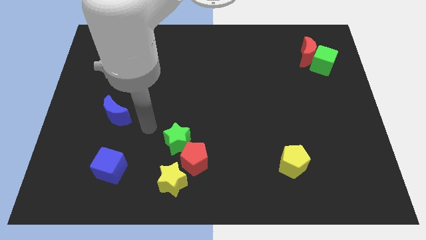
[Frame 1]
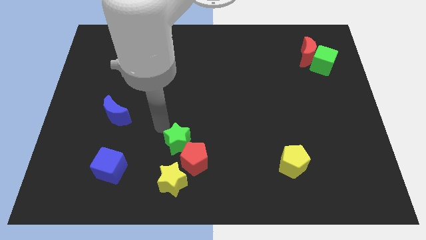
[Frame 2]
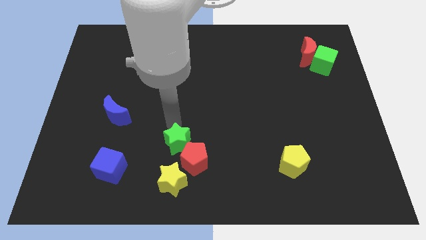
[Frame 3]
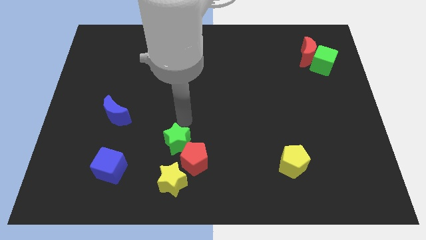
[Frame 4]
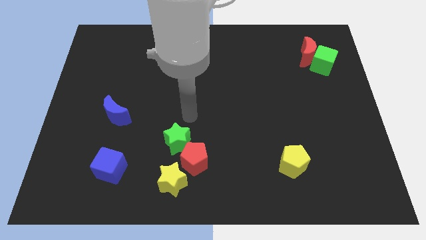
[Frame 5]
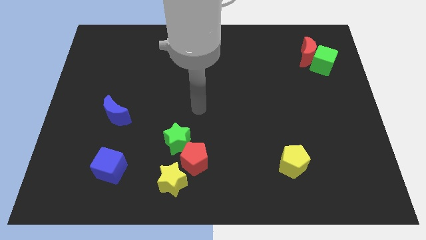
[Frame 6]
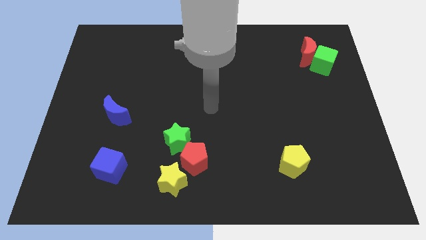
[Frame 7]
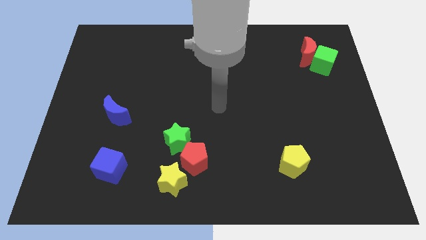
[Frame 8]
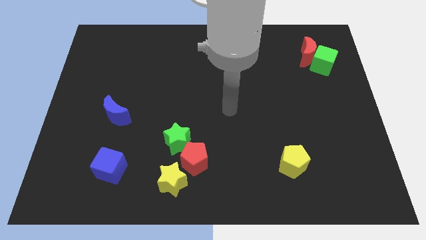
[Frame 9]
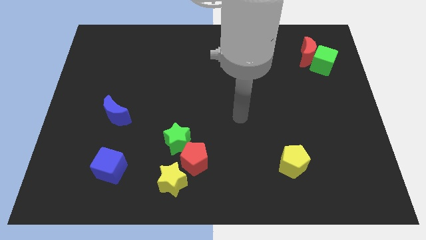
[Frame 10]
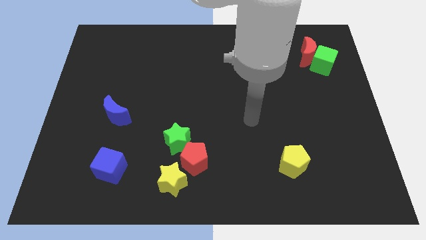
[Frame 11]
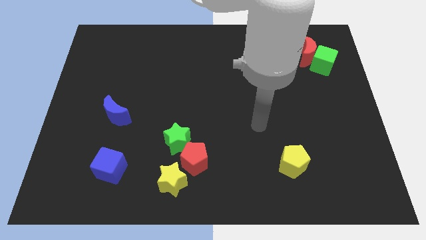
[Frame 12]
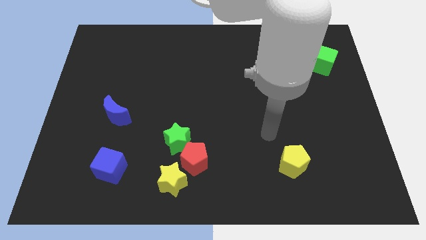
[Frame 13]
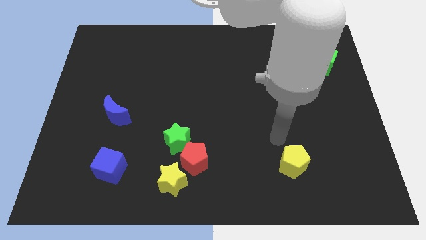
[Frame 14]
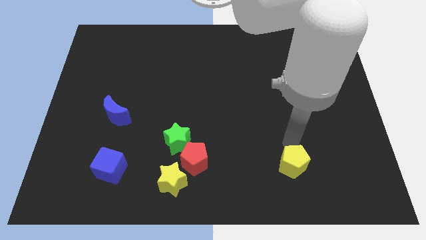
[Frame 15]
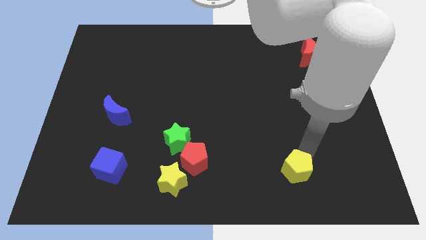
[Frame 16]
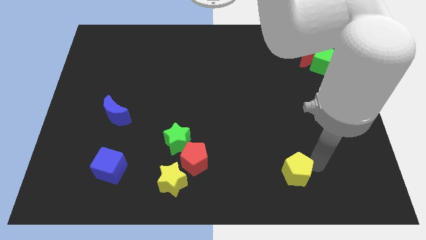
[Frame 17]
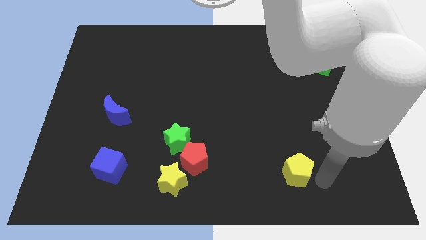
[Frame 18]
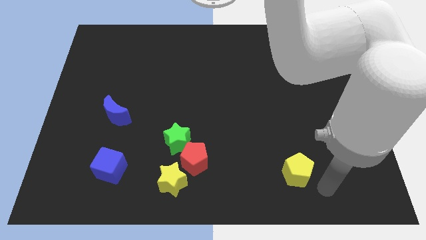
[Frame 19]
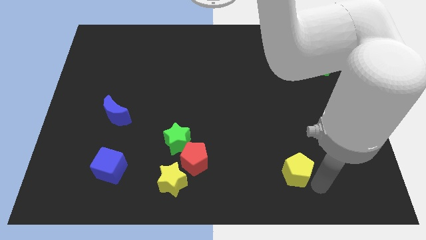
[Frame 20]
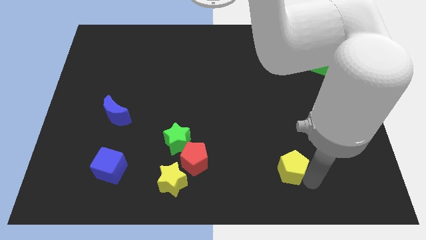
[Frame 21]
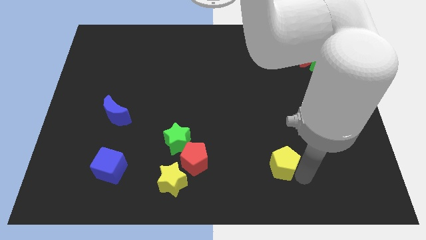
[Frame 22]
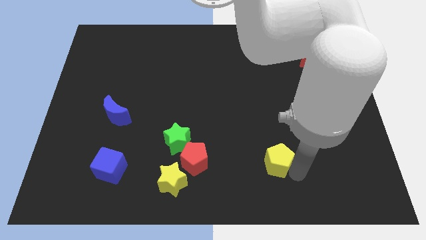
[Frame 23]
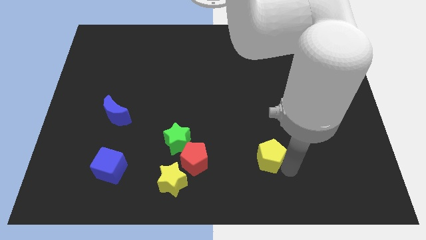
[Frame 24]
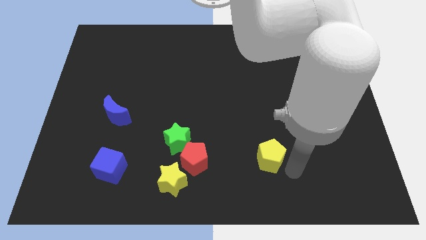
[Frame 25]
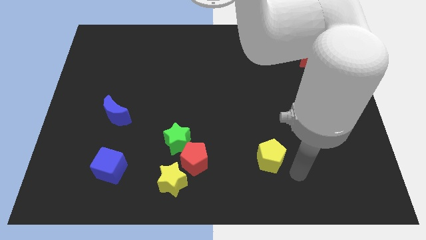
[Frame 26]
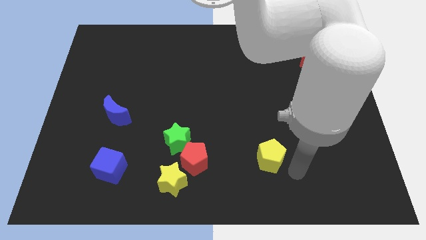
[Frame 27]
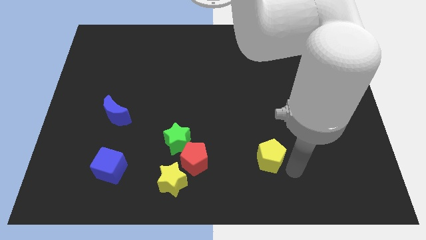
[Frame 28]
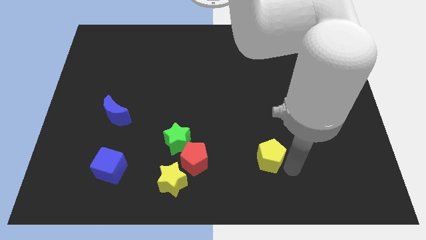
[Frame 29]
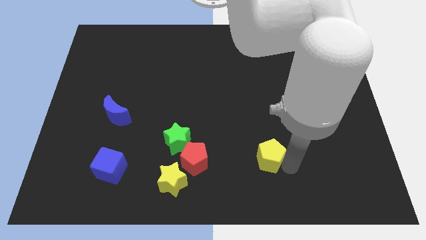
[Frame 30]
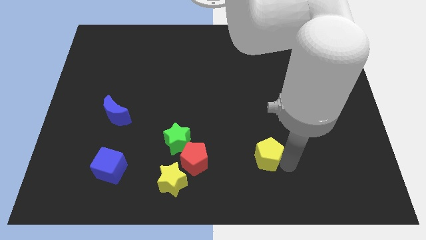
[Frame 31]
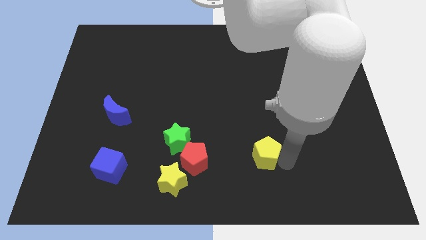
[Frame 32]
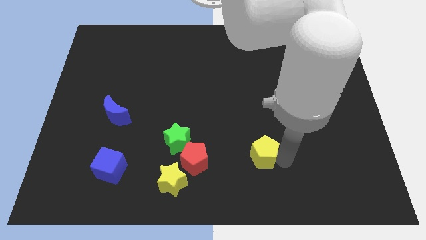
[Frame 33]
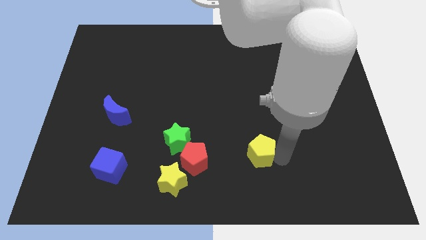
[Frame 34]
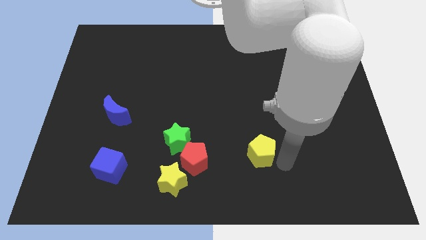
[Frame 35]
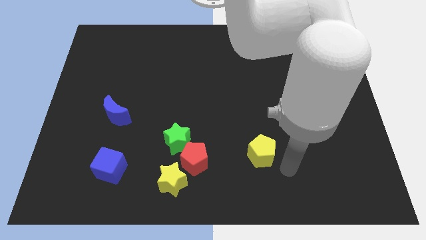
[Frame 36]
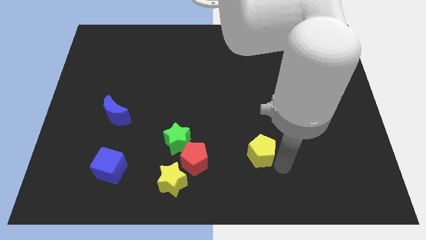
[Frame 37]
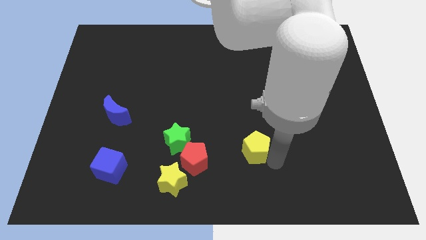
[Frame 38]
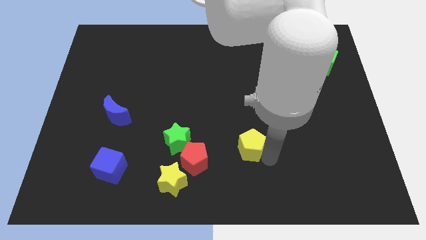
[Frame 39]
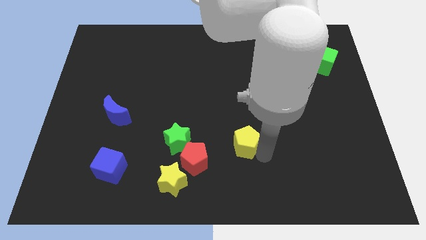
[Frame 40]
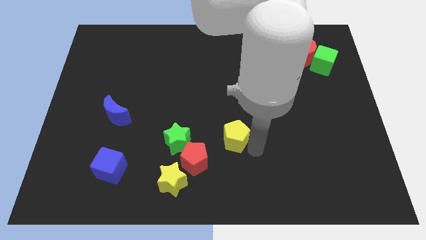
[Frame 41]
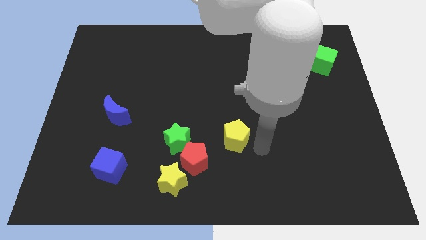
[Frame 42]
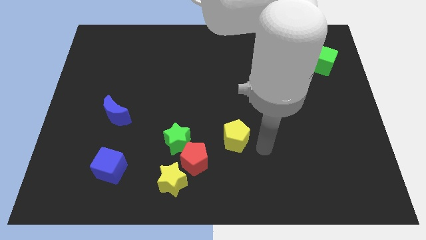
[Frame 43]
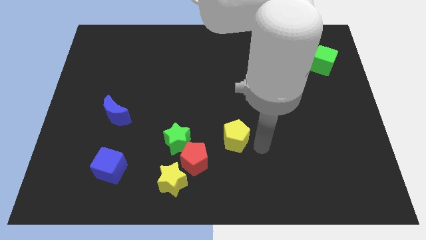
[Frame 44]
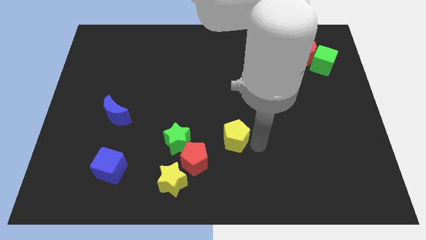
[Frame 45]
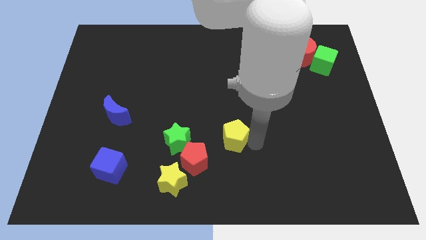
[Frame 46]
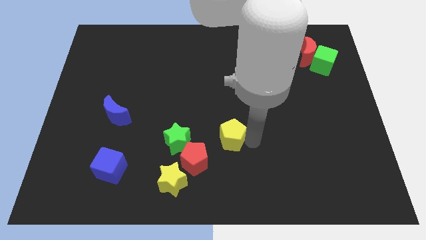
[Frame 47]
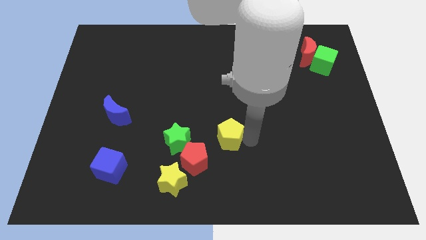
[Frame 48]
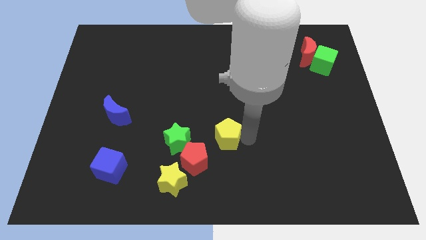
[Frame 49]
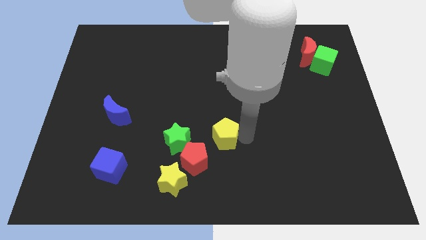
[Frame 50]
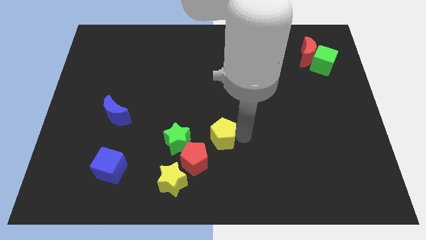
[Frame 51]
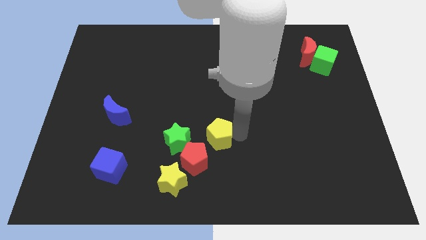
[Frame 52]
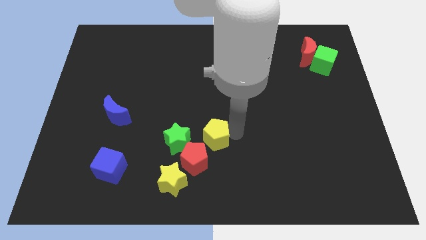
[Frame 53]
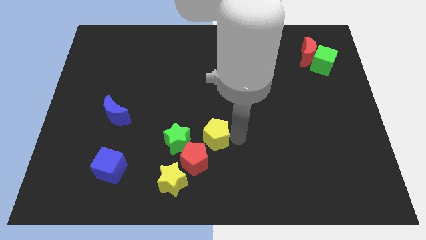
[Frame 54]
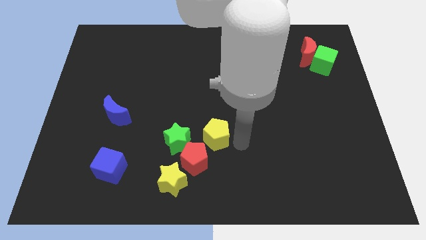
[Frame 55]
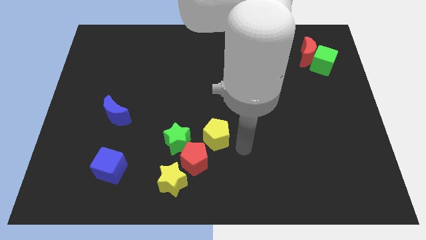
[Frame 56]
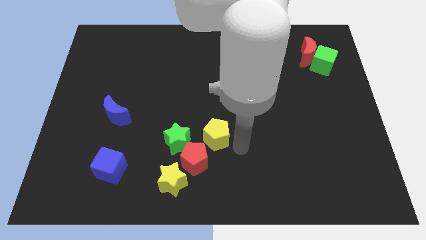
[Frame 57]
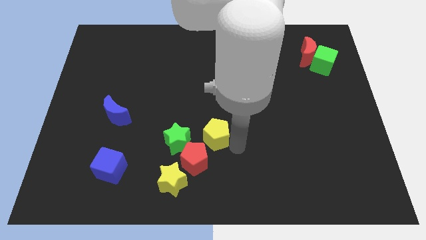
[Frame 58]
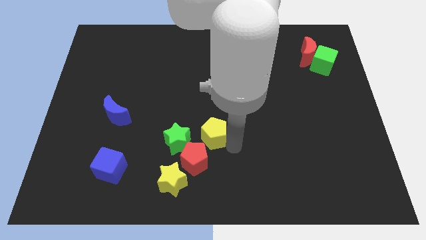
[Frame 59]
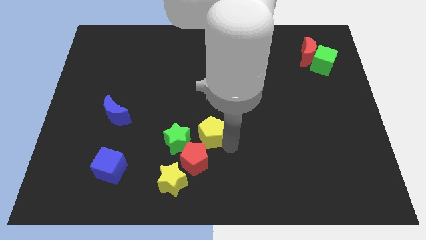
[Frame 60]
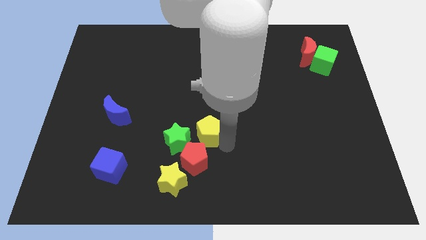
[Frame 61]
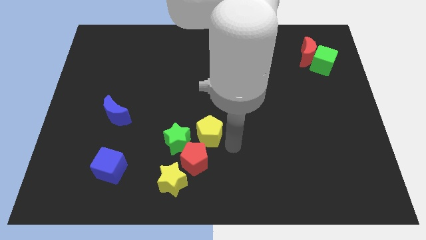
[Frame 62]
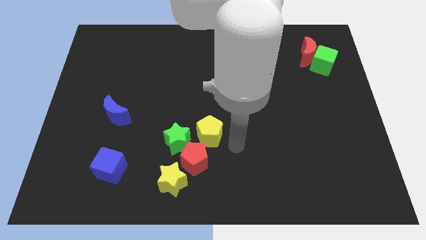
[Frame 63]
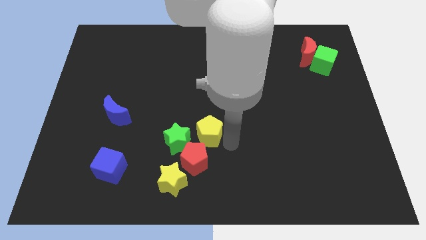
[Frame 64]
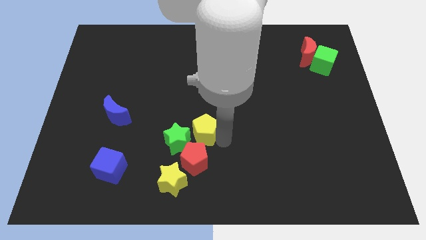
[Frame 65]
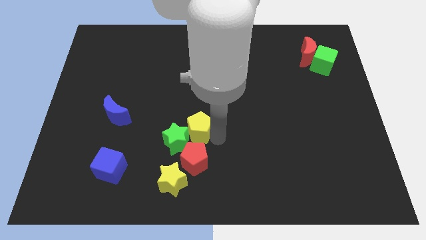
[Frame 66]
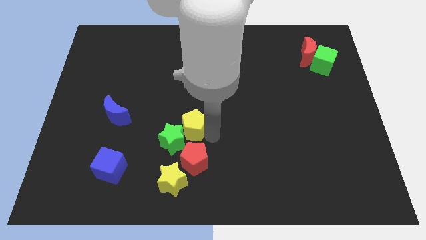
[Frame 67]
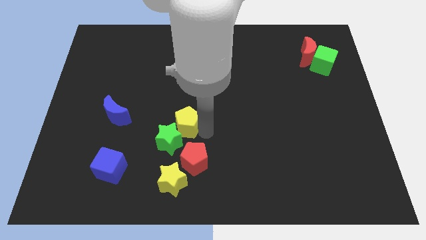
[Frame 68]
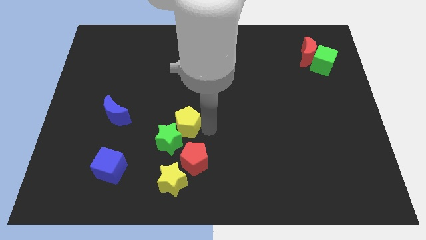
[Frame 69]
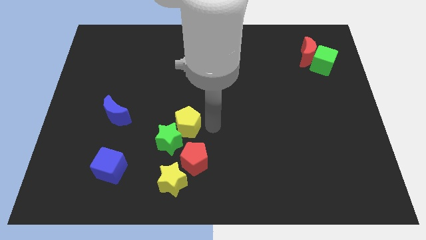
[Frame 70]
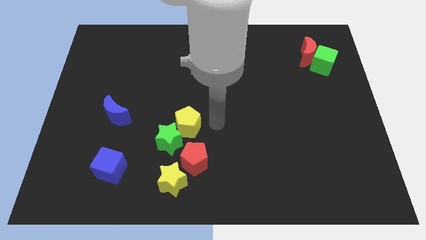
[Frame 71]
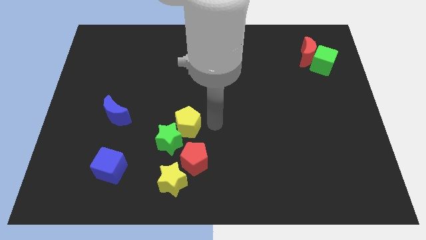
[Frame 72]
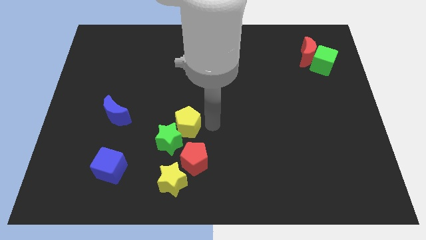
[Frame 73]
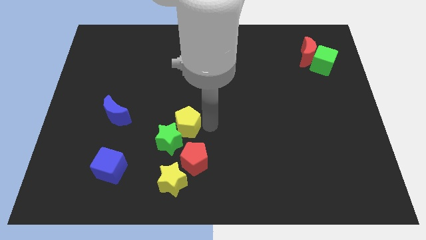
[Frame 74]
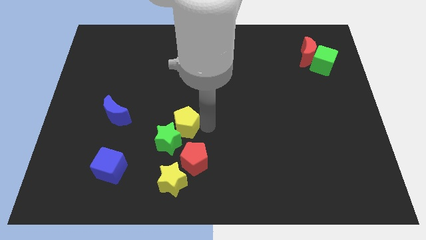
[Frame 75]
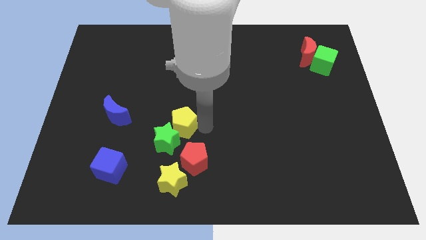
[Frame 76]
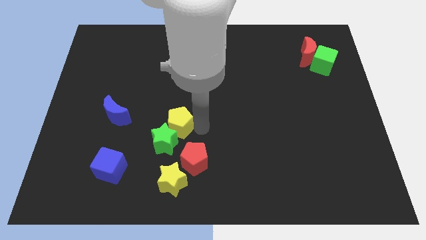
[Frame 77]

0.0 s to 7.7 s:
move the yellow pentagon left
